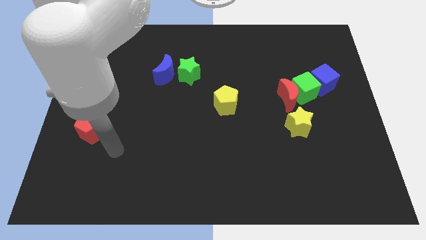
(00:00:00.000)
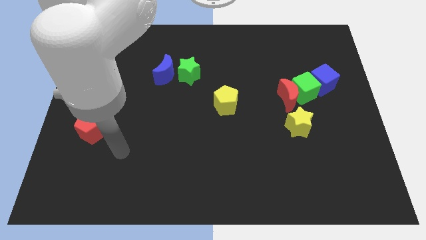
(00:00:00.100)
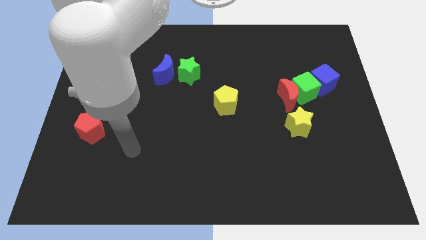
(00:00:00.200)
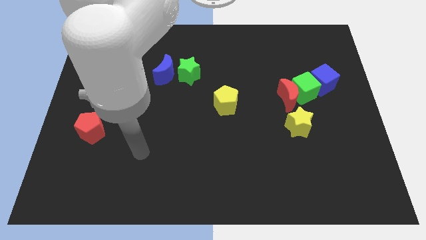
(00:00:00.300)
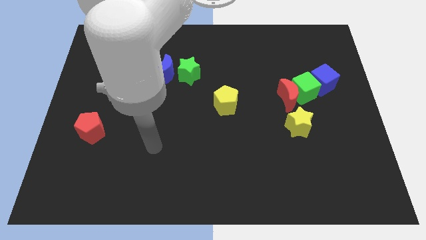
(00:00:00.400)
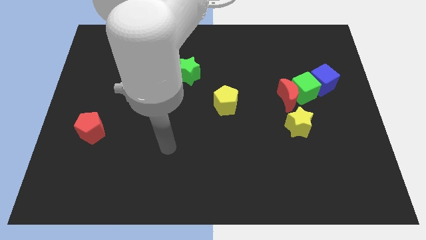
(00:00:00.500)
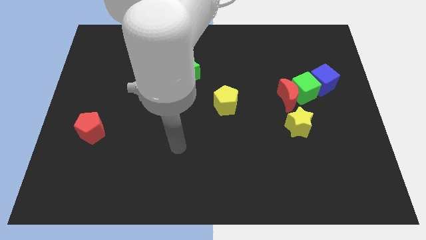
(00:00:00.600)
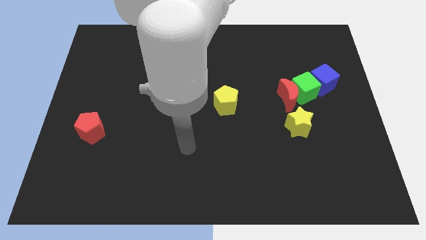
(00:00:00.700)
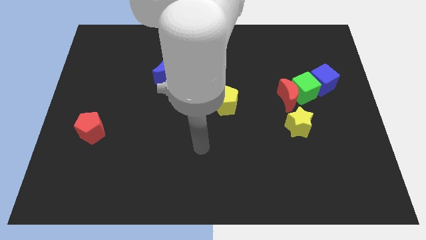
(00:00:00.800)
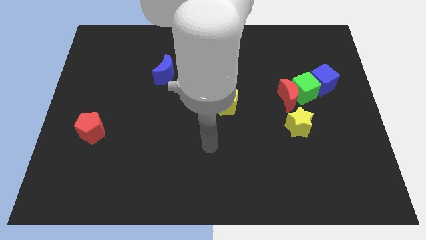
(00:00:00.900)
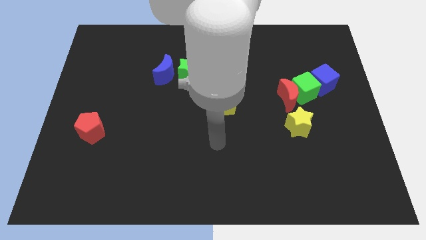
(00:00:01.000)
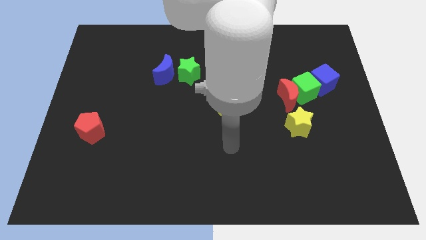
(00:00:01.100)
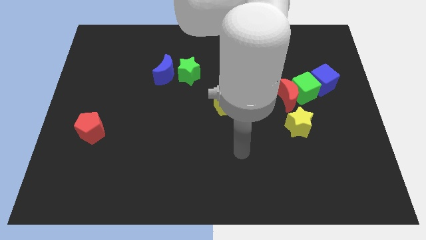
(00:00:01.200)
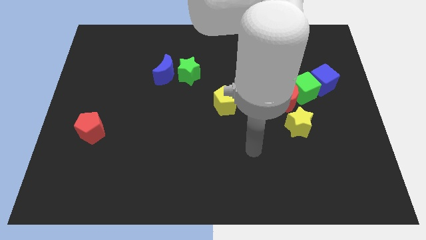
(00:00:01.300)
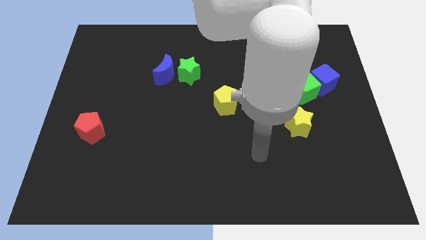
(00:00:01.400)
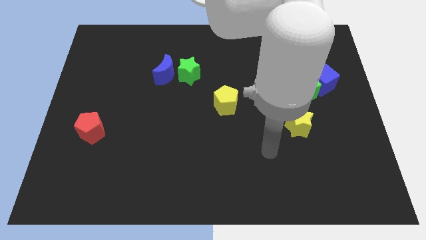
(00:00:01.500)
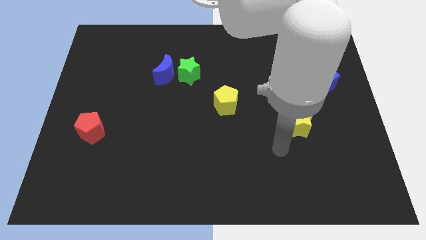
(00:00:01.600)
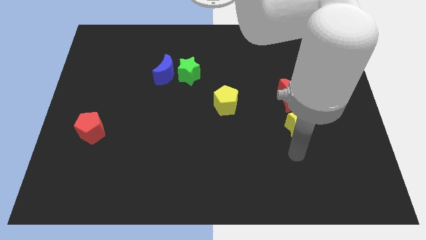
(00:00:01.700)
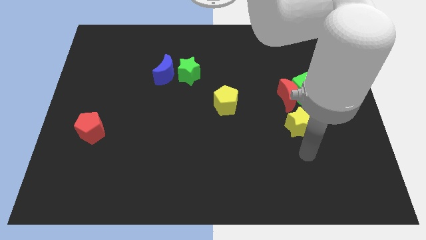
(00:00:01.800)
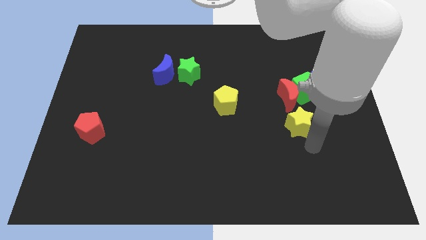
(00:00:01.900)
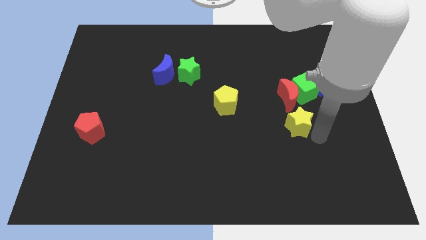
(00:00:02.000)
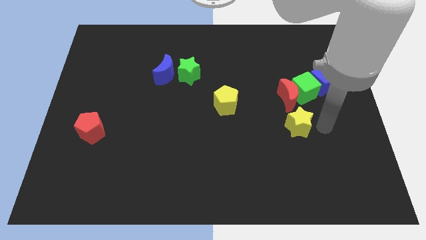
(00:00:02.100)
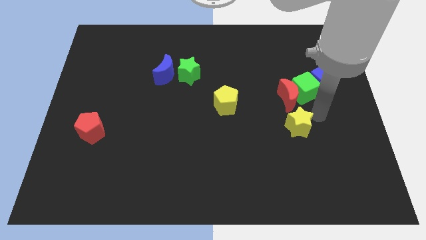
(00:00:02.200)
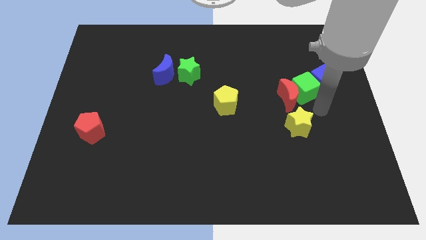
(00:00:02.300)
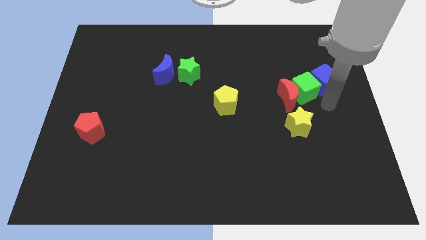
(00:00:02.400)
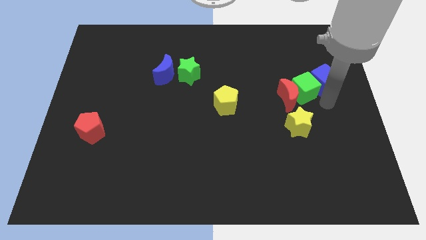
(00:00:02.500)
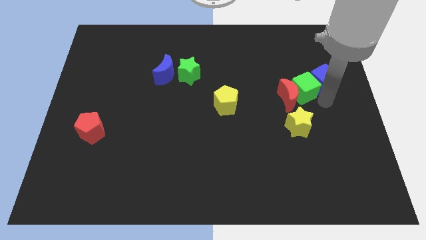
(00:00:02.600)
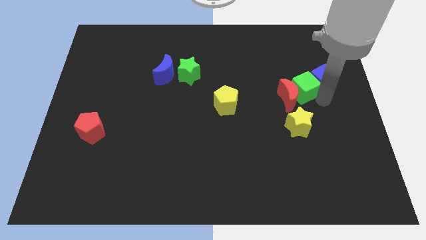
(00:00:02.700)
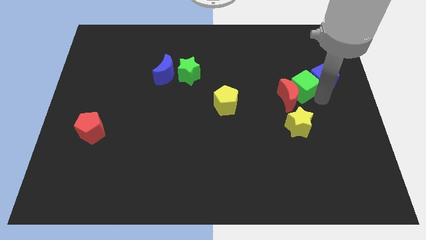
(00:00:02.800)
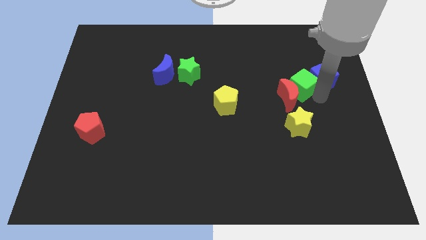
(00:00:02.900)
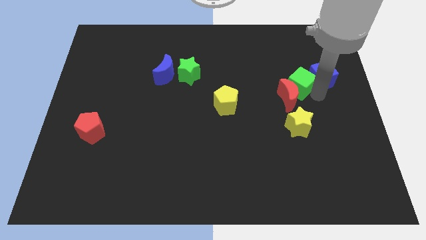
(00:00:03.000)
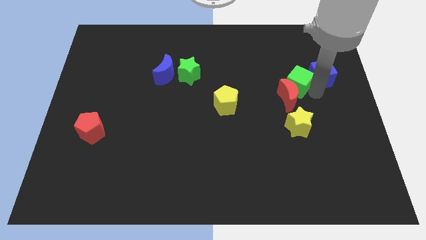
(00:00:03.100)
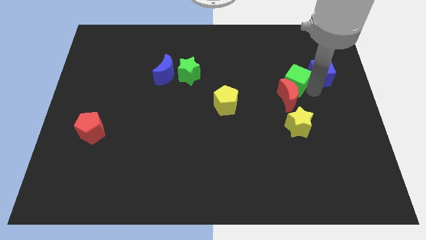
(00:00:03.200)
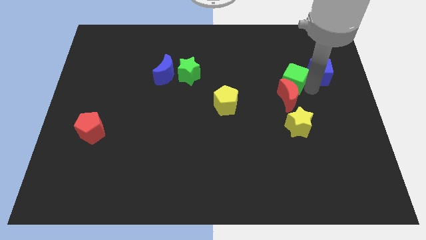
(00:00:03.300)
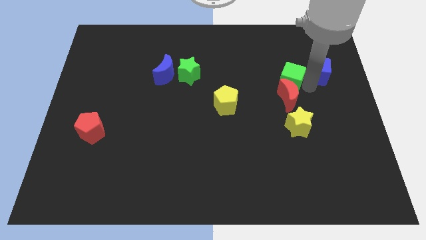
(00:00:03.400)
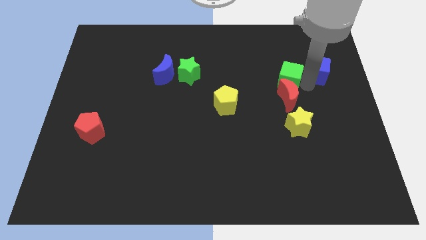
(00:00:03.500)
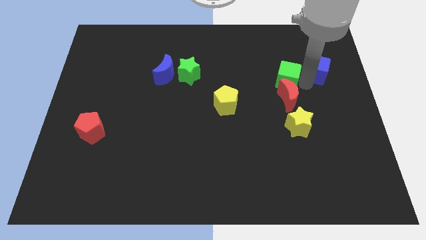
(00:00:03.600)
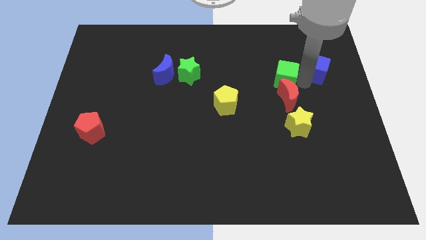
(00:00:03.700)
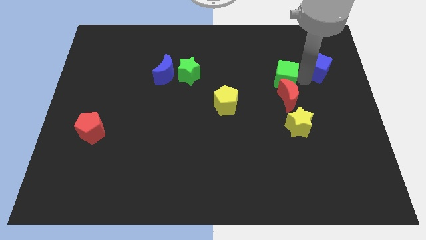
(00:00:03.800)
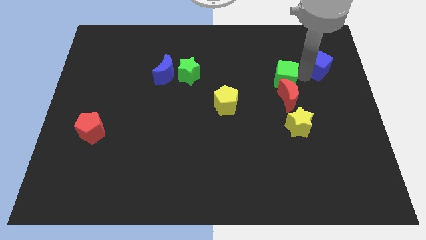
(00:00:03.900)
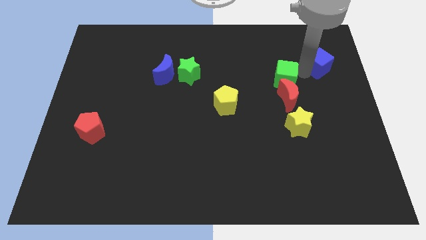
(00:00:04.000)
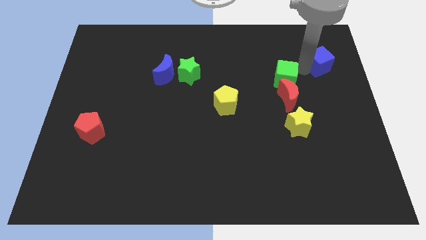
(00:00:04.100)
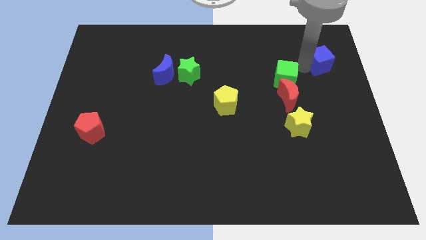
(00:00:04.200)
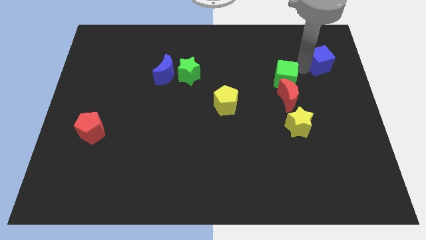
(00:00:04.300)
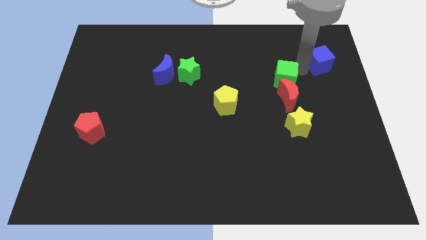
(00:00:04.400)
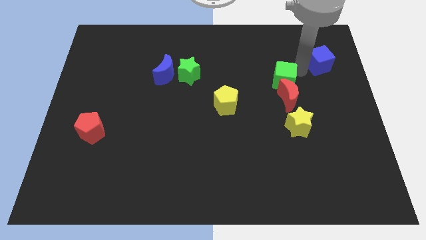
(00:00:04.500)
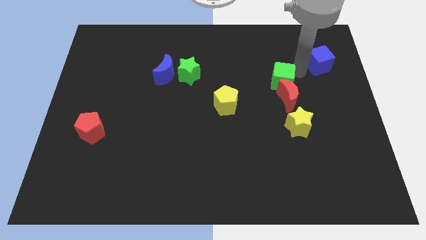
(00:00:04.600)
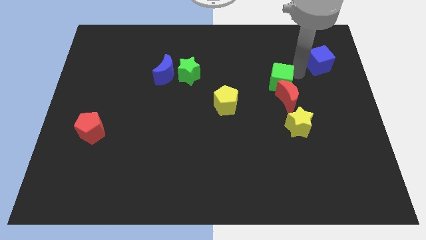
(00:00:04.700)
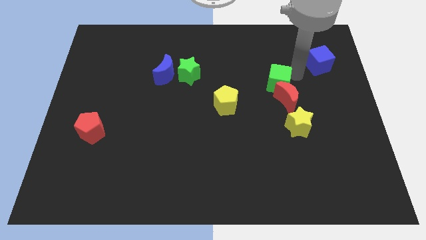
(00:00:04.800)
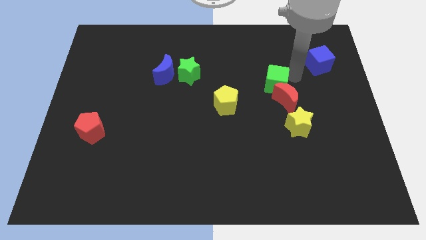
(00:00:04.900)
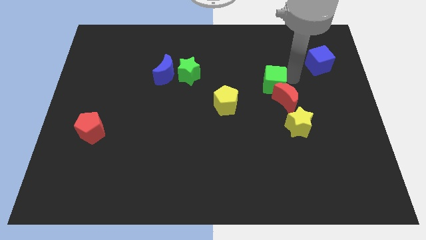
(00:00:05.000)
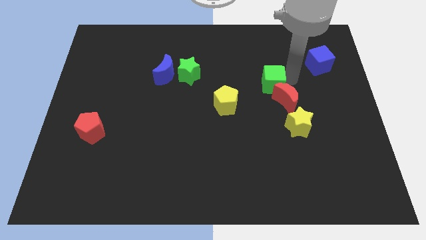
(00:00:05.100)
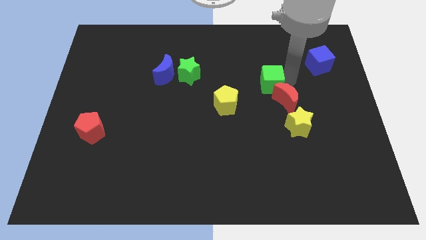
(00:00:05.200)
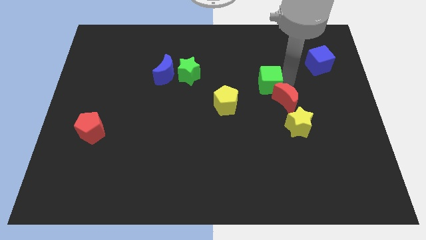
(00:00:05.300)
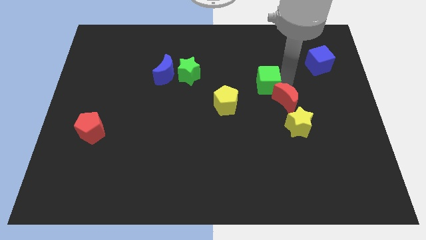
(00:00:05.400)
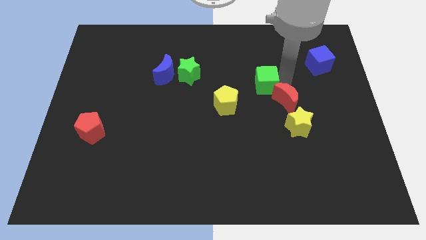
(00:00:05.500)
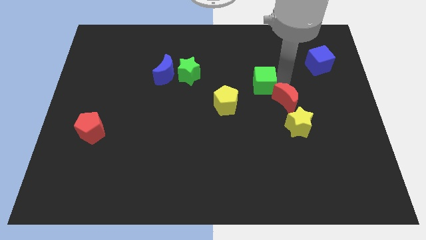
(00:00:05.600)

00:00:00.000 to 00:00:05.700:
separate the green cube from the red moon and blue cube

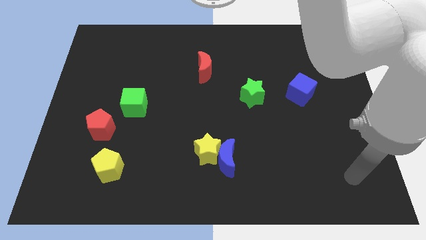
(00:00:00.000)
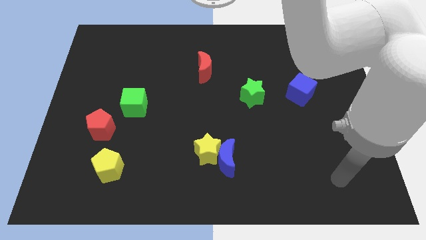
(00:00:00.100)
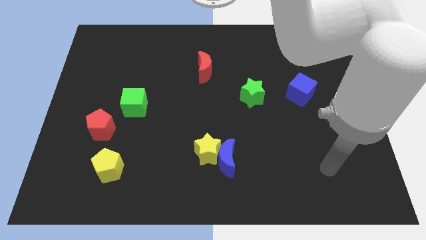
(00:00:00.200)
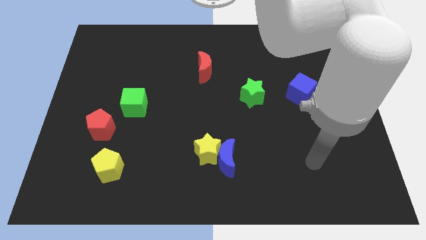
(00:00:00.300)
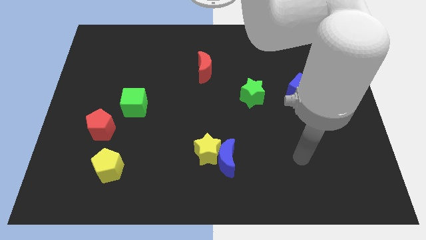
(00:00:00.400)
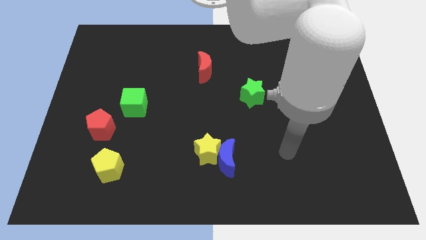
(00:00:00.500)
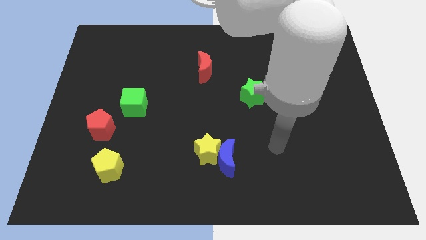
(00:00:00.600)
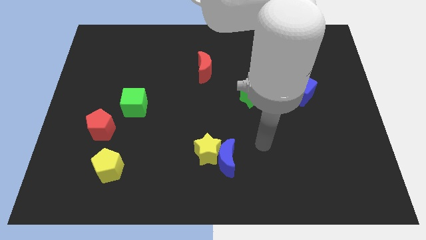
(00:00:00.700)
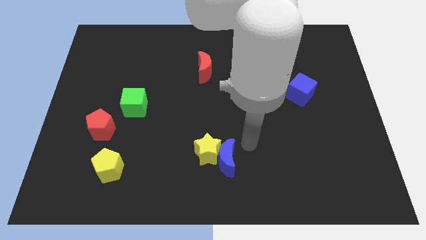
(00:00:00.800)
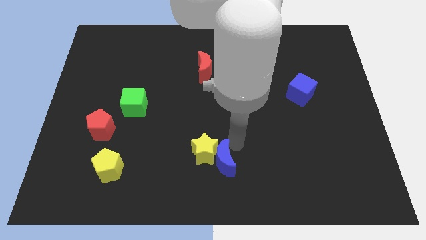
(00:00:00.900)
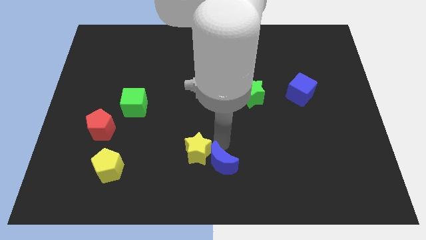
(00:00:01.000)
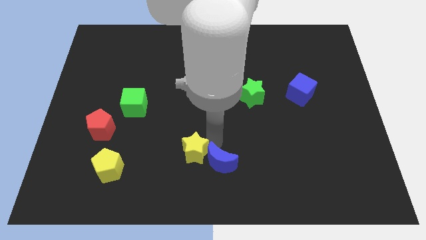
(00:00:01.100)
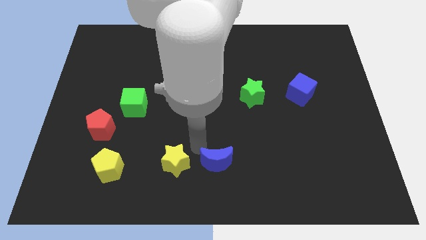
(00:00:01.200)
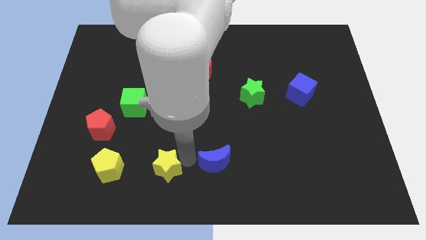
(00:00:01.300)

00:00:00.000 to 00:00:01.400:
separate the blue moon from the yellow star

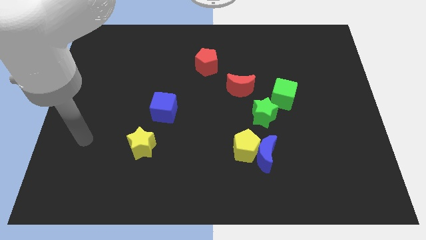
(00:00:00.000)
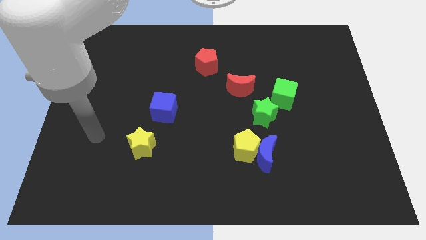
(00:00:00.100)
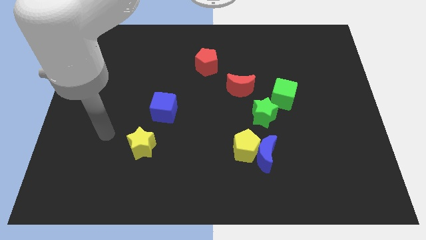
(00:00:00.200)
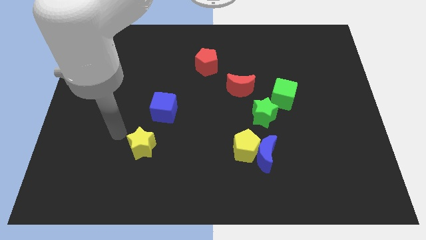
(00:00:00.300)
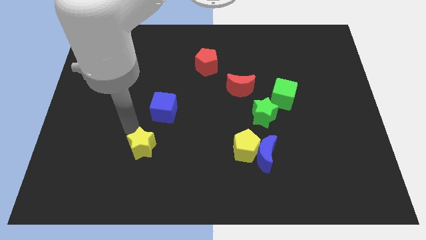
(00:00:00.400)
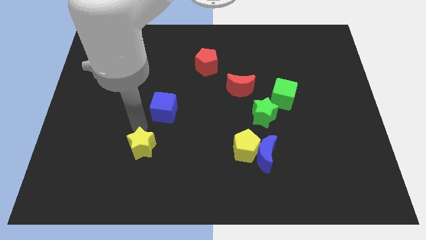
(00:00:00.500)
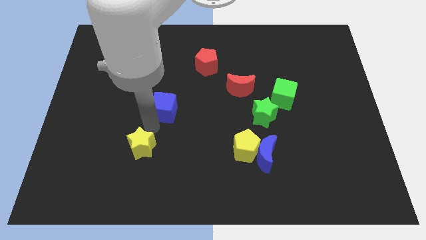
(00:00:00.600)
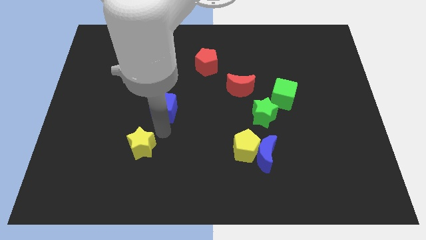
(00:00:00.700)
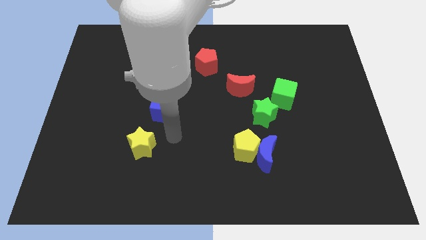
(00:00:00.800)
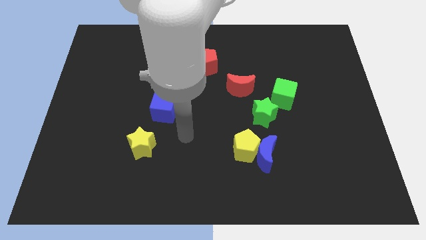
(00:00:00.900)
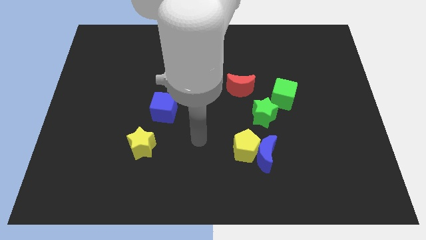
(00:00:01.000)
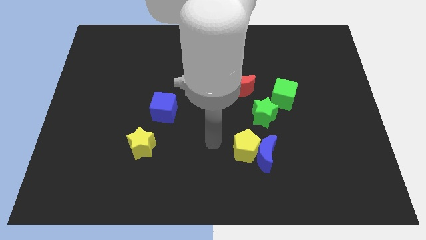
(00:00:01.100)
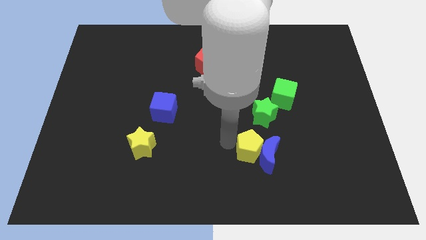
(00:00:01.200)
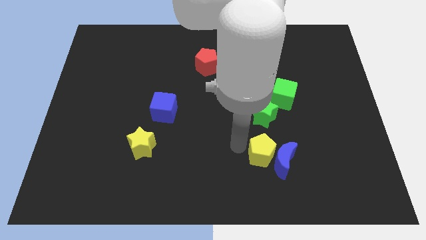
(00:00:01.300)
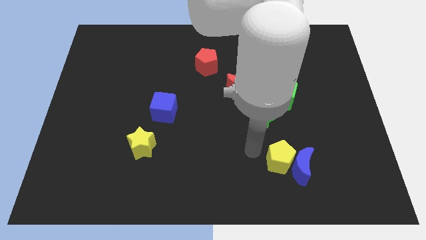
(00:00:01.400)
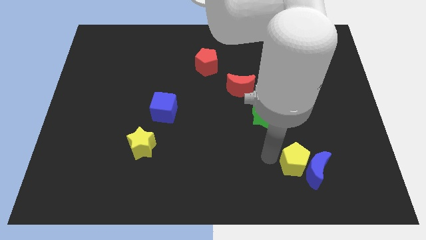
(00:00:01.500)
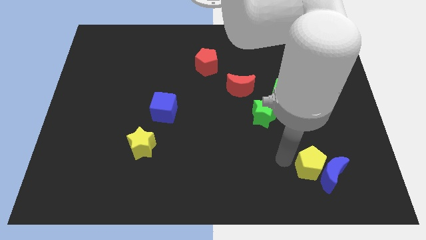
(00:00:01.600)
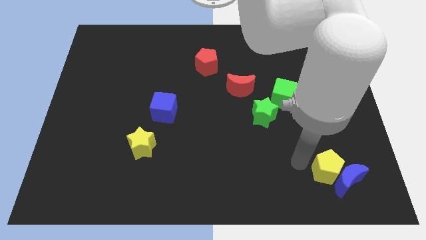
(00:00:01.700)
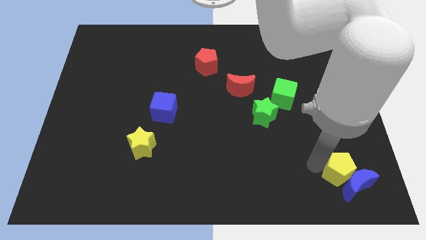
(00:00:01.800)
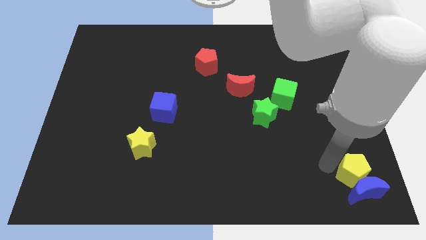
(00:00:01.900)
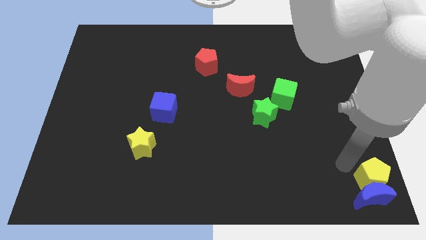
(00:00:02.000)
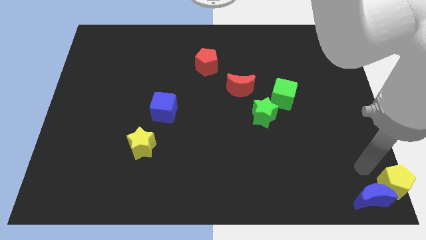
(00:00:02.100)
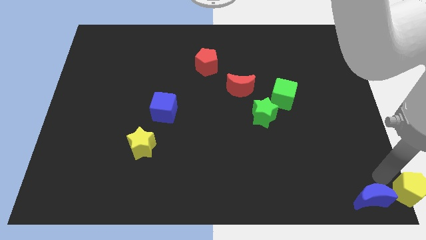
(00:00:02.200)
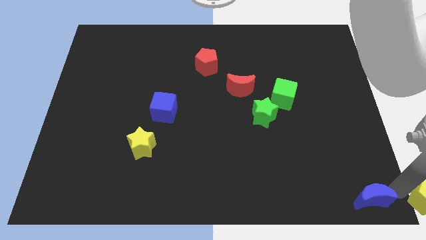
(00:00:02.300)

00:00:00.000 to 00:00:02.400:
separate the blue moon from the yellow pentagon
